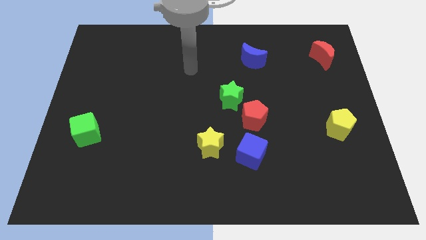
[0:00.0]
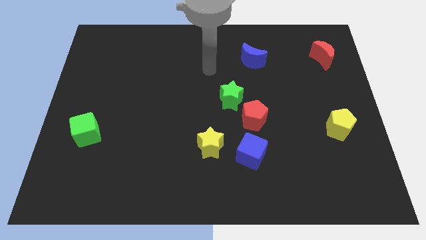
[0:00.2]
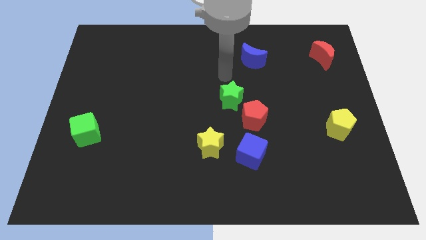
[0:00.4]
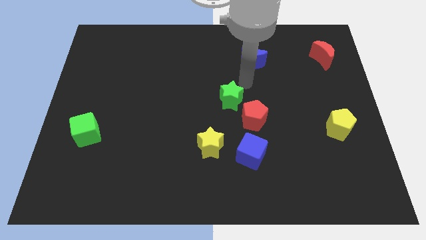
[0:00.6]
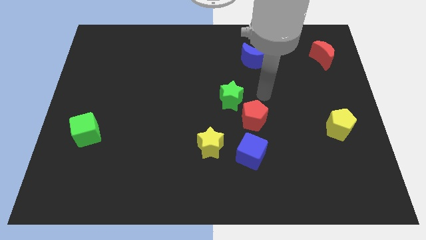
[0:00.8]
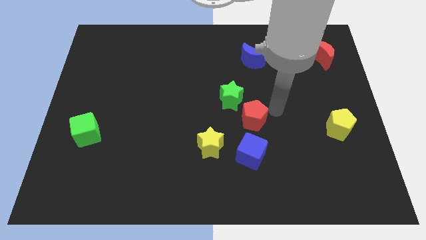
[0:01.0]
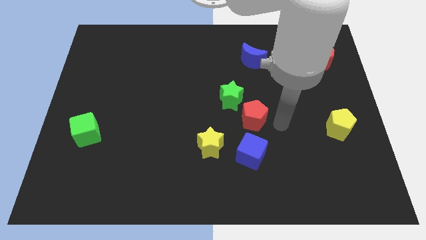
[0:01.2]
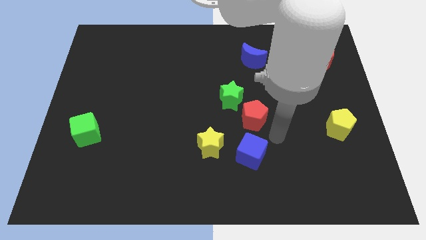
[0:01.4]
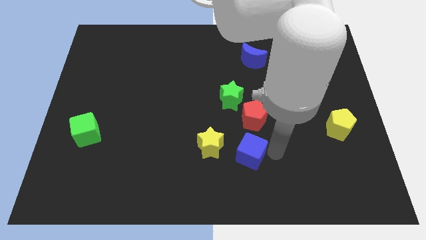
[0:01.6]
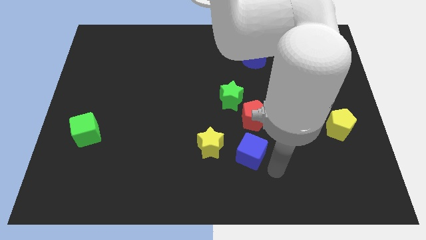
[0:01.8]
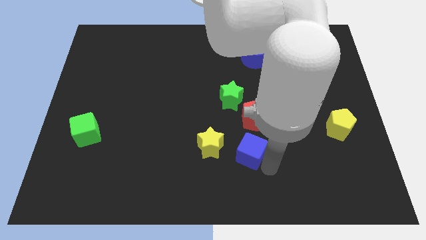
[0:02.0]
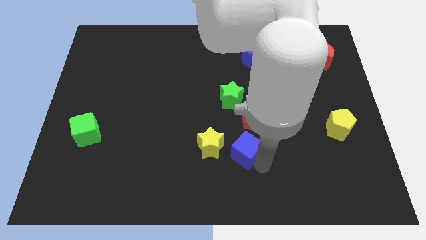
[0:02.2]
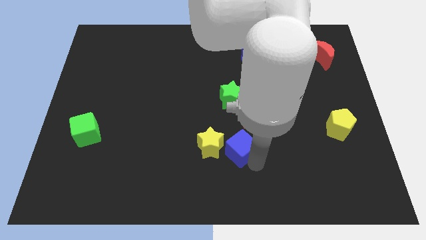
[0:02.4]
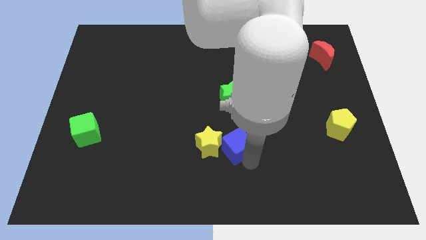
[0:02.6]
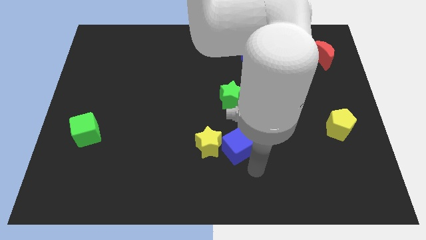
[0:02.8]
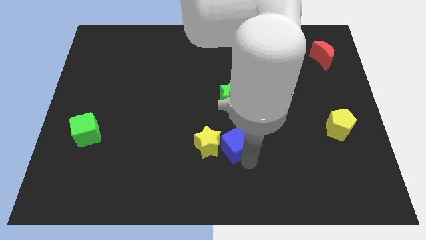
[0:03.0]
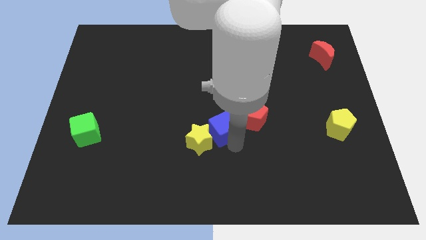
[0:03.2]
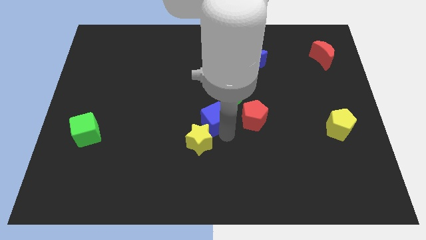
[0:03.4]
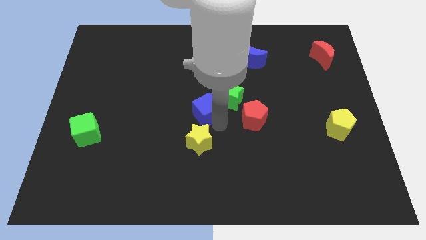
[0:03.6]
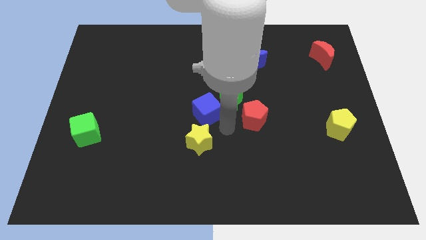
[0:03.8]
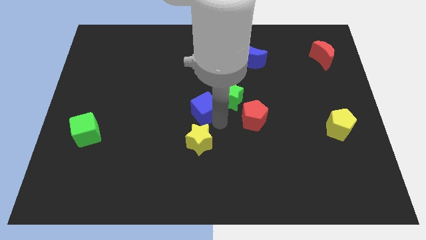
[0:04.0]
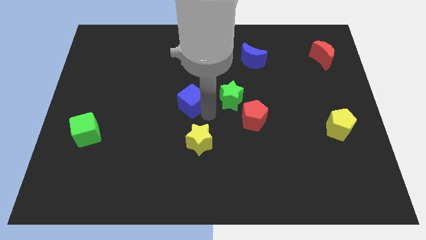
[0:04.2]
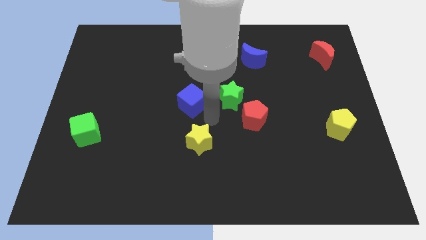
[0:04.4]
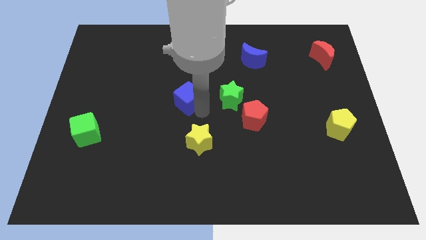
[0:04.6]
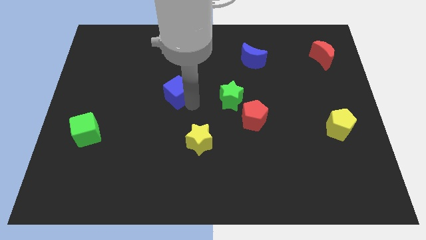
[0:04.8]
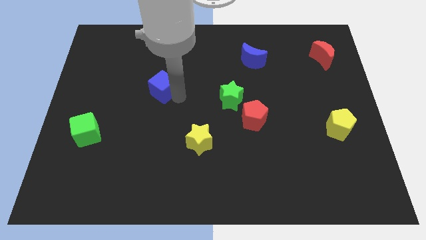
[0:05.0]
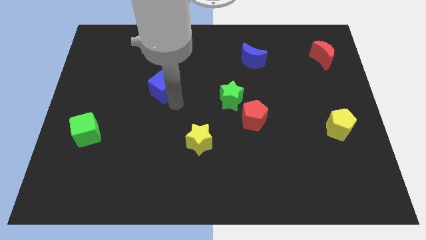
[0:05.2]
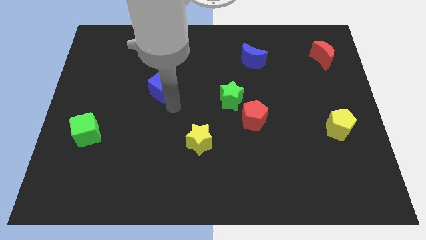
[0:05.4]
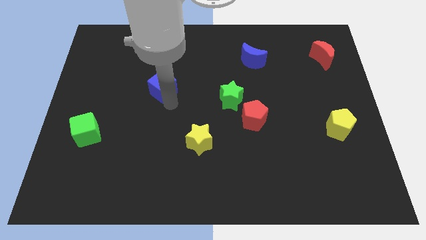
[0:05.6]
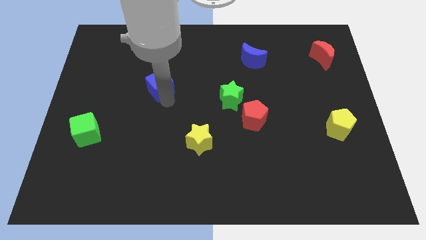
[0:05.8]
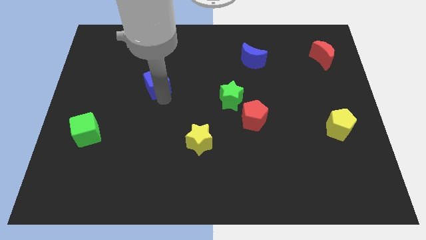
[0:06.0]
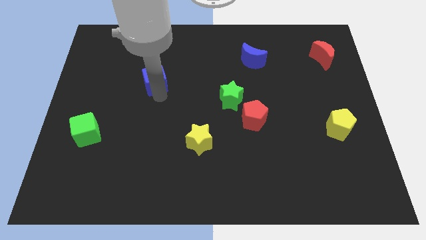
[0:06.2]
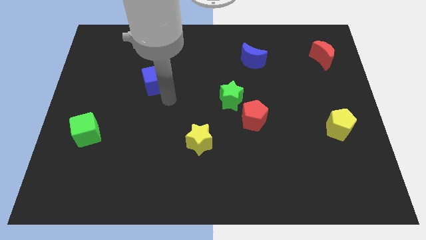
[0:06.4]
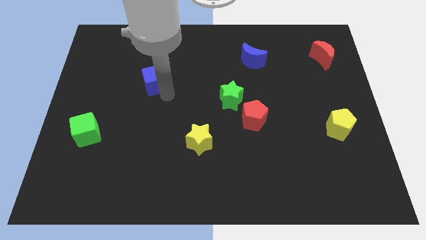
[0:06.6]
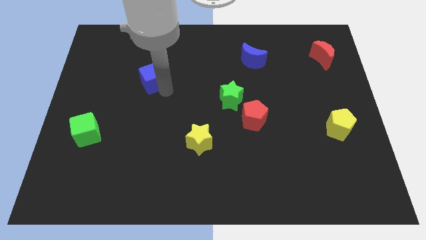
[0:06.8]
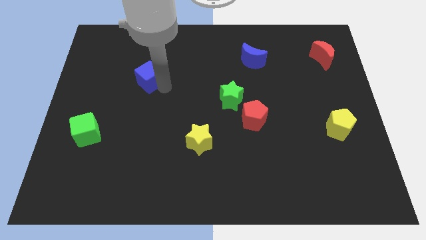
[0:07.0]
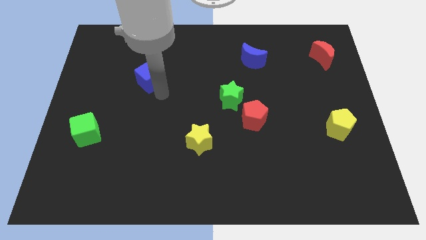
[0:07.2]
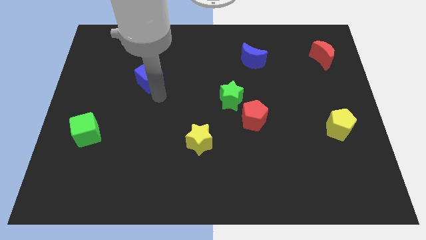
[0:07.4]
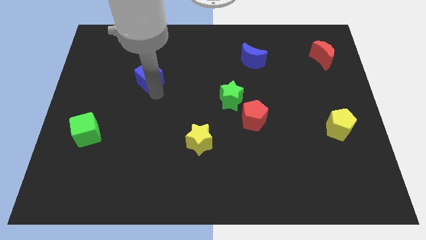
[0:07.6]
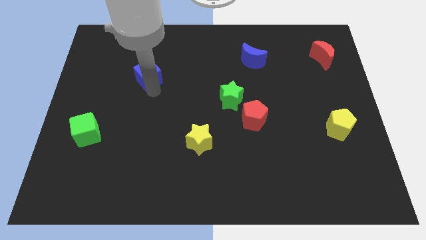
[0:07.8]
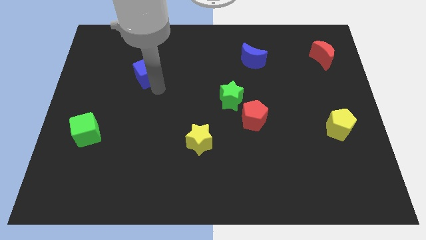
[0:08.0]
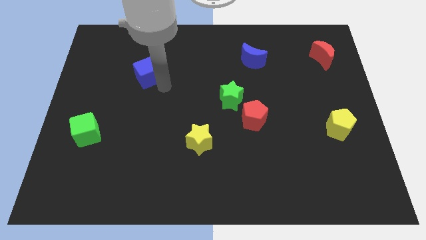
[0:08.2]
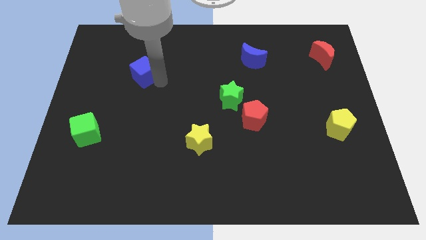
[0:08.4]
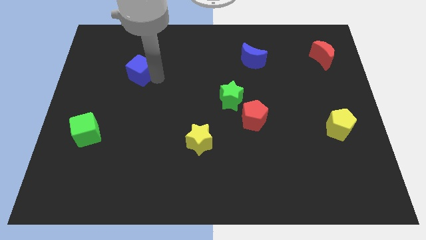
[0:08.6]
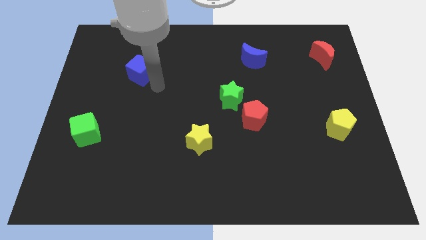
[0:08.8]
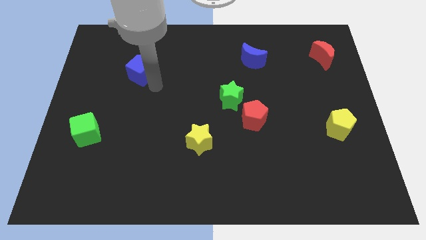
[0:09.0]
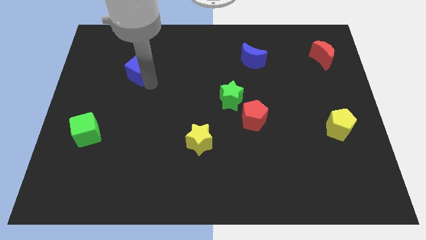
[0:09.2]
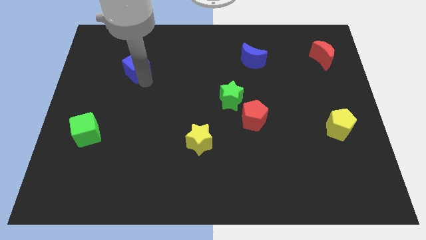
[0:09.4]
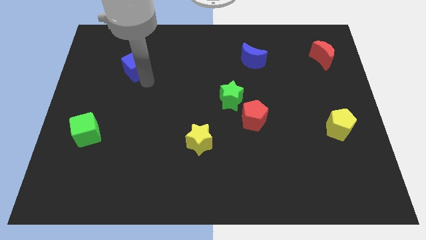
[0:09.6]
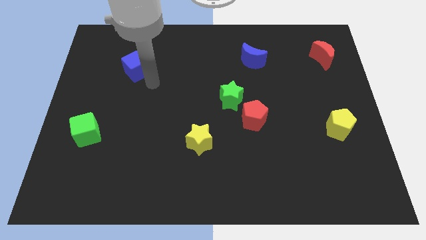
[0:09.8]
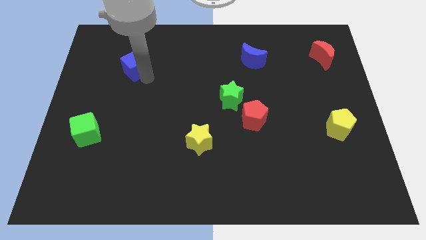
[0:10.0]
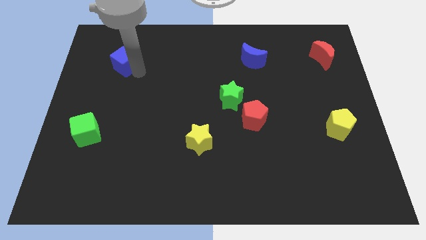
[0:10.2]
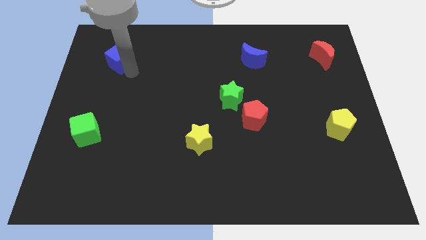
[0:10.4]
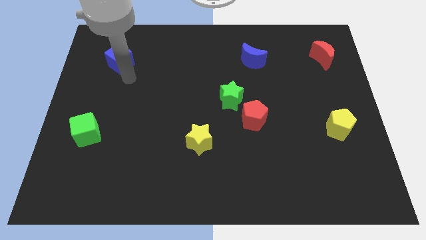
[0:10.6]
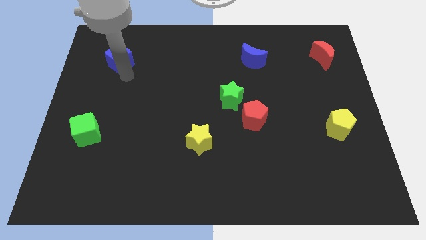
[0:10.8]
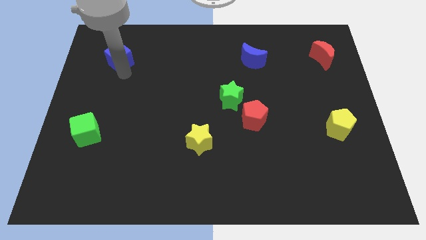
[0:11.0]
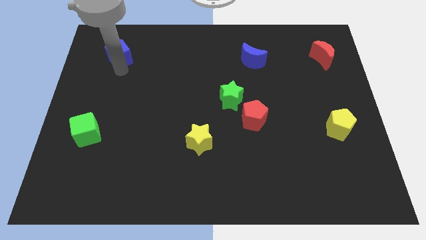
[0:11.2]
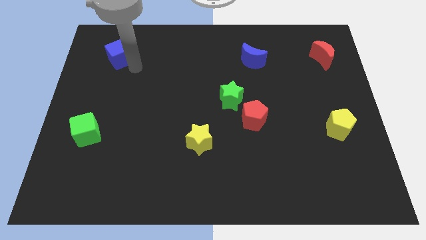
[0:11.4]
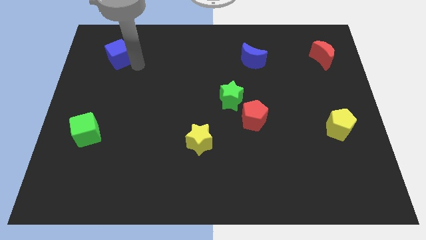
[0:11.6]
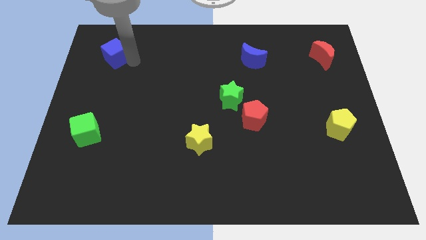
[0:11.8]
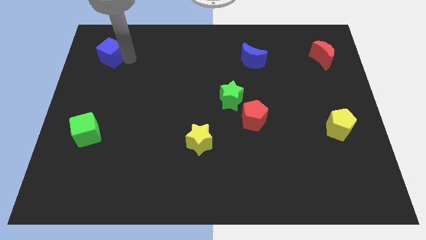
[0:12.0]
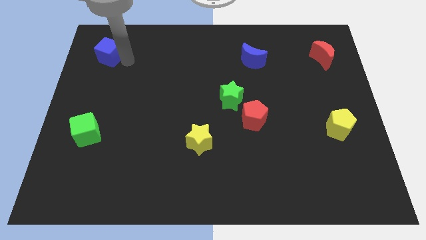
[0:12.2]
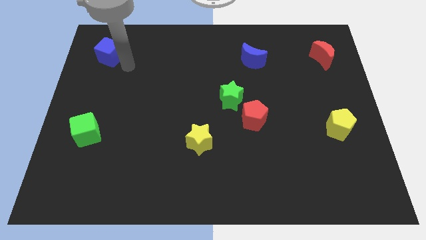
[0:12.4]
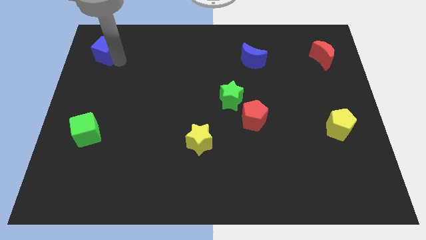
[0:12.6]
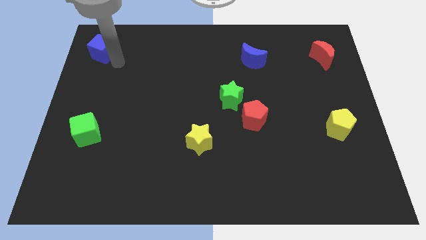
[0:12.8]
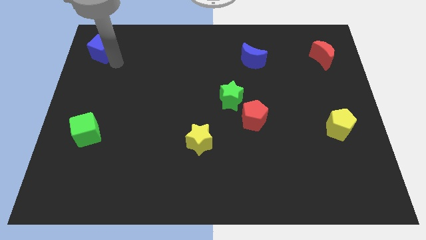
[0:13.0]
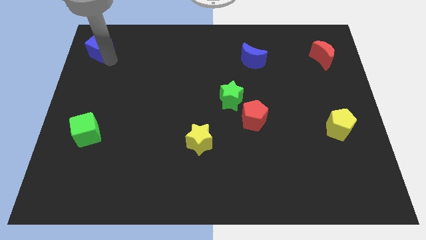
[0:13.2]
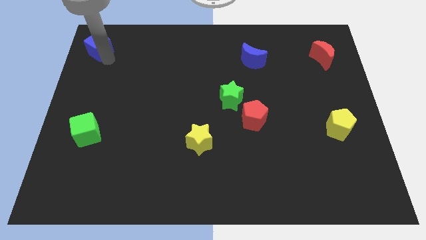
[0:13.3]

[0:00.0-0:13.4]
slide the blue cube to the upper left corner
